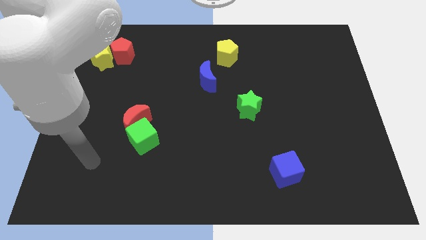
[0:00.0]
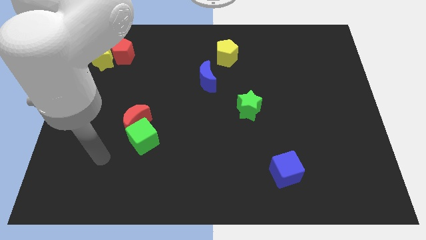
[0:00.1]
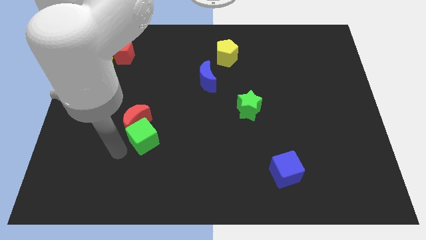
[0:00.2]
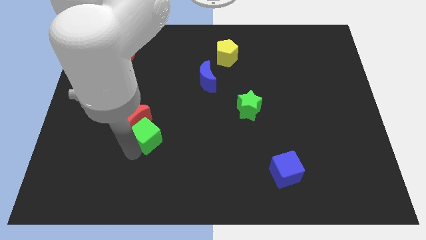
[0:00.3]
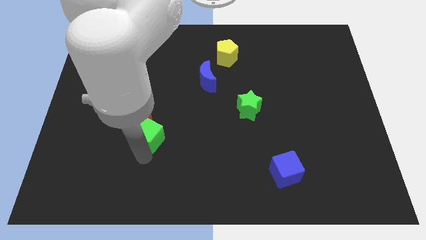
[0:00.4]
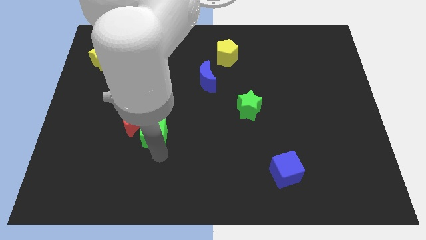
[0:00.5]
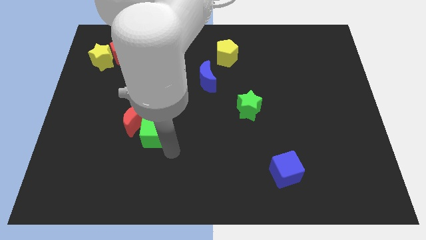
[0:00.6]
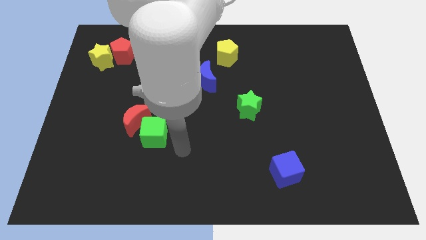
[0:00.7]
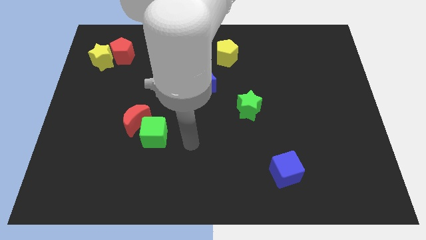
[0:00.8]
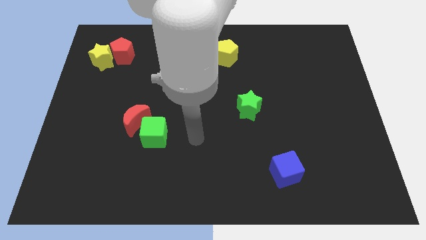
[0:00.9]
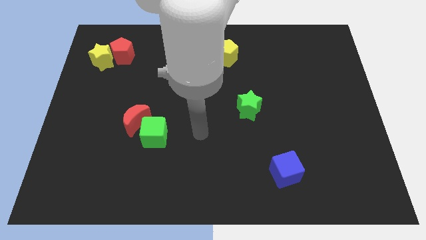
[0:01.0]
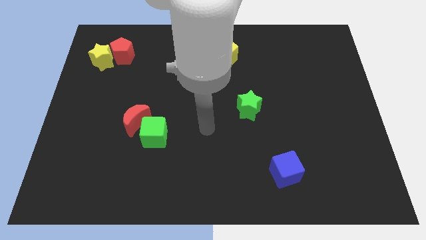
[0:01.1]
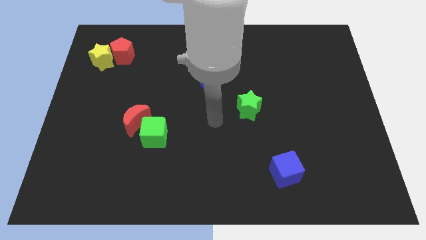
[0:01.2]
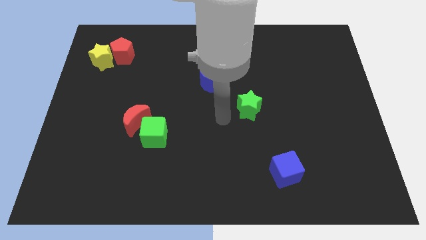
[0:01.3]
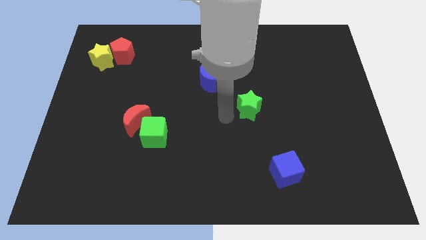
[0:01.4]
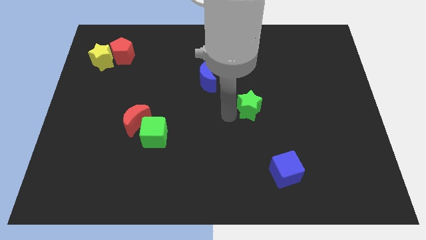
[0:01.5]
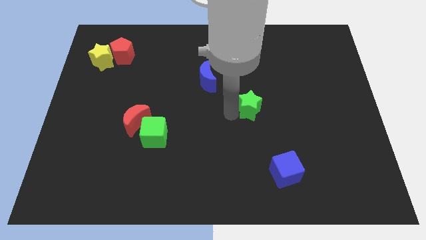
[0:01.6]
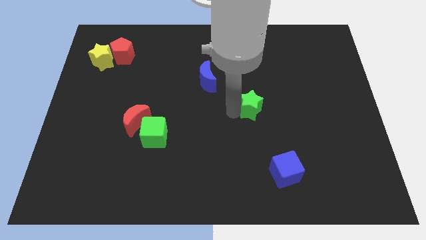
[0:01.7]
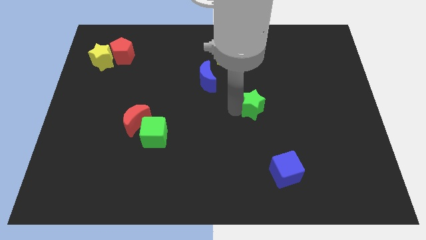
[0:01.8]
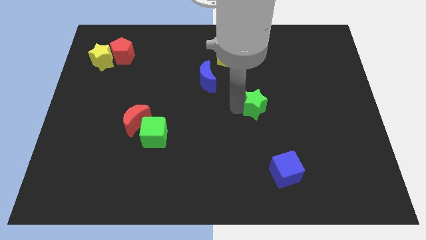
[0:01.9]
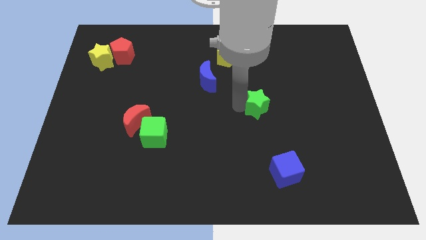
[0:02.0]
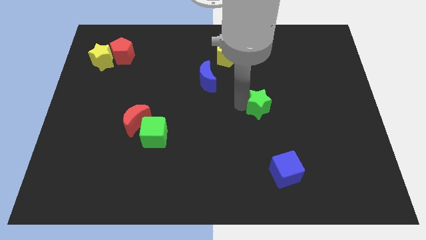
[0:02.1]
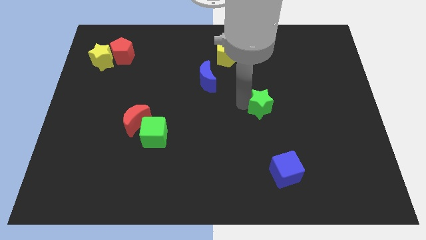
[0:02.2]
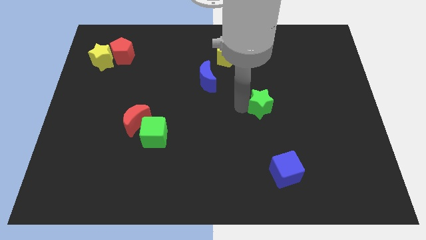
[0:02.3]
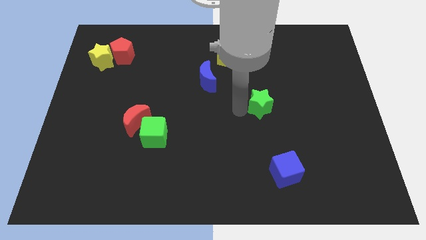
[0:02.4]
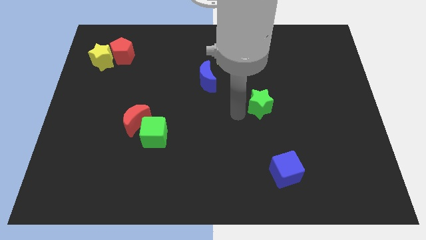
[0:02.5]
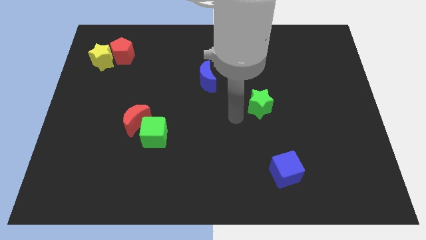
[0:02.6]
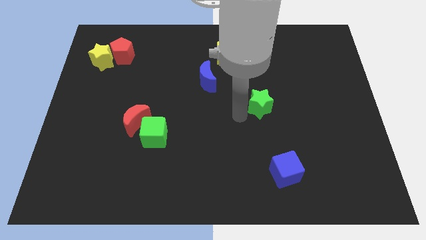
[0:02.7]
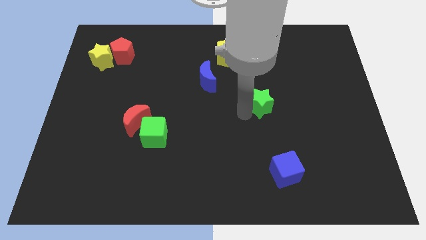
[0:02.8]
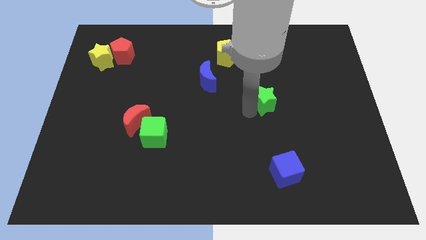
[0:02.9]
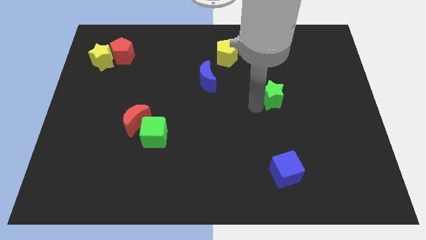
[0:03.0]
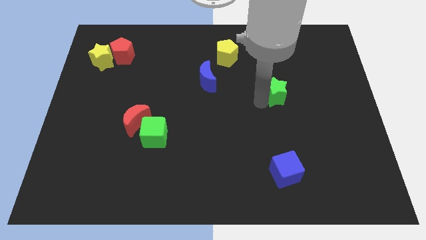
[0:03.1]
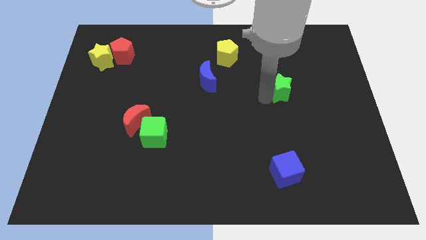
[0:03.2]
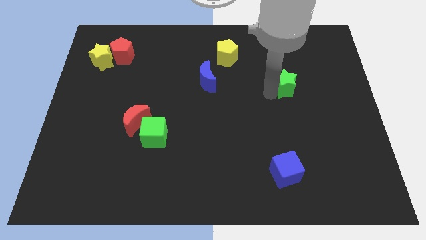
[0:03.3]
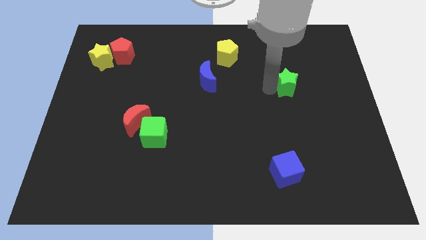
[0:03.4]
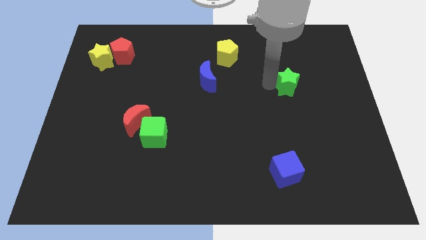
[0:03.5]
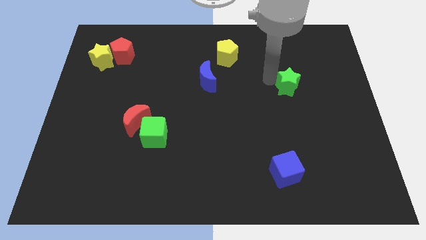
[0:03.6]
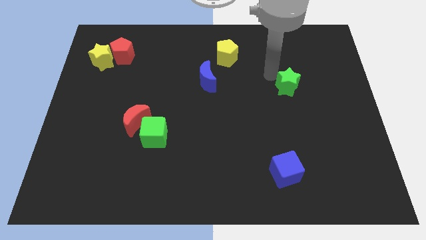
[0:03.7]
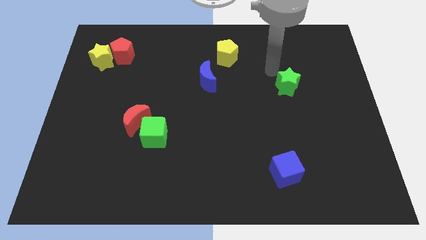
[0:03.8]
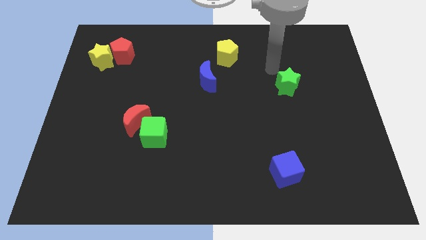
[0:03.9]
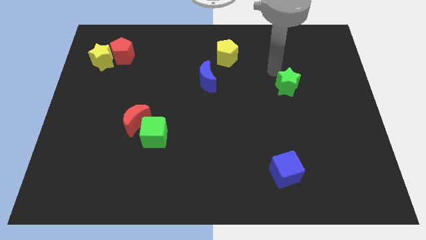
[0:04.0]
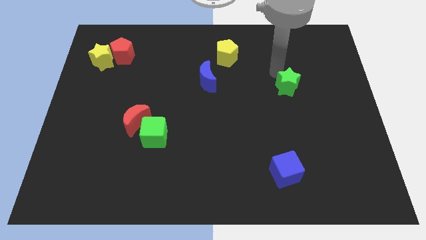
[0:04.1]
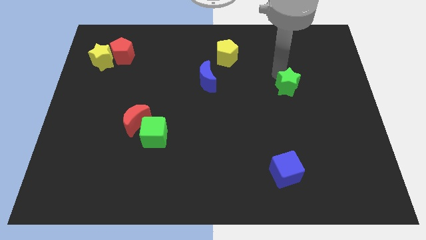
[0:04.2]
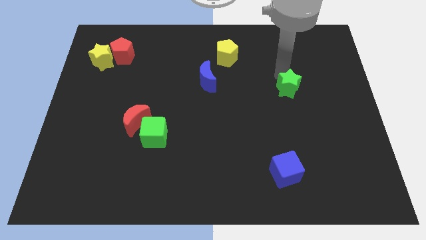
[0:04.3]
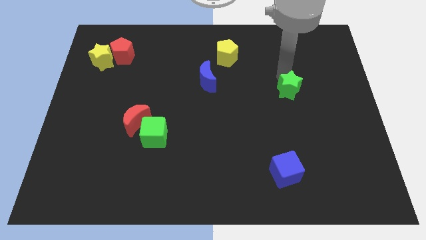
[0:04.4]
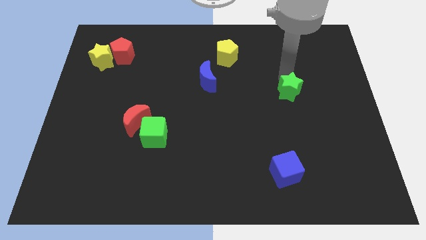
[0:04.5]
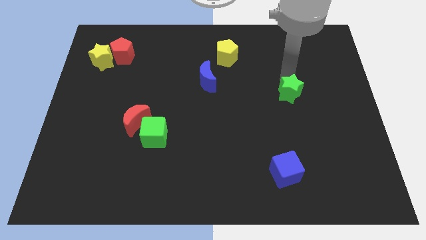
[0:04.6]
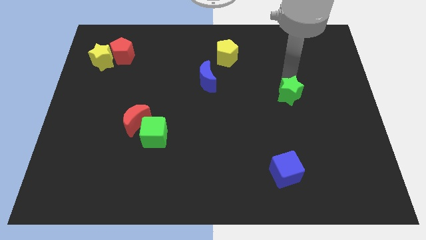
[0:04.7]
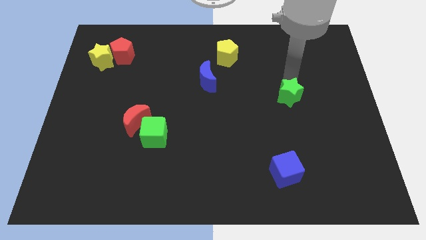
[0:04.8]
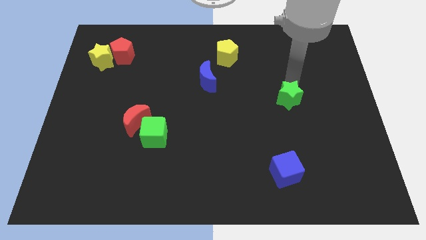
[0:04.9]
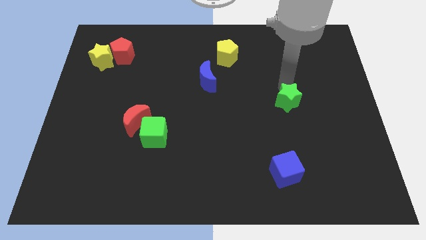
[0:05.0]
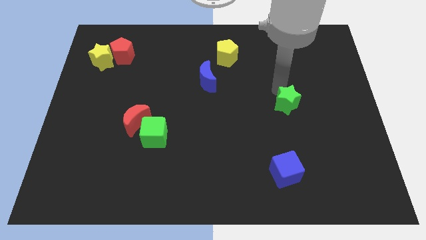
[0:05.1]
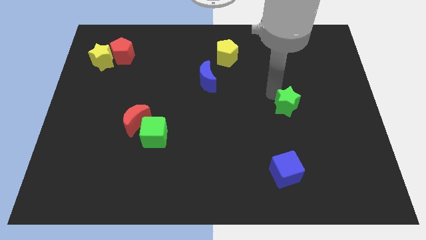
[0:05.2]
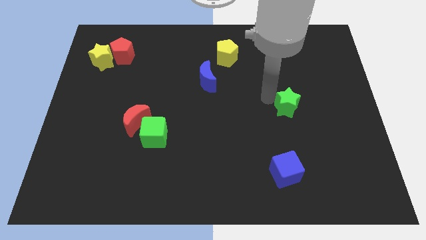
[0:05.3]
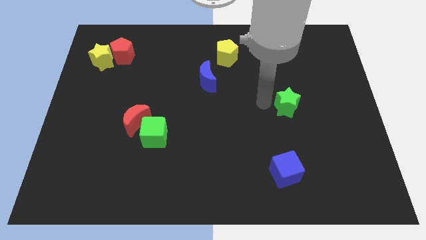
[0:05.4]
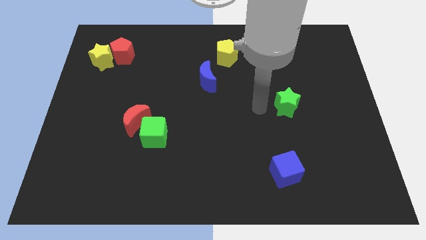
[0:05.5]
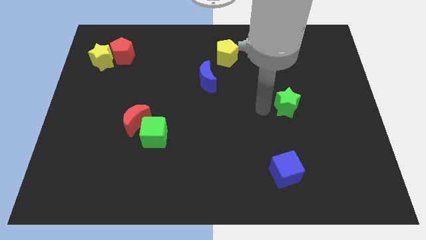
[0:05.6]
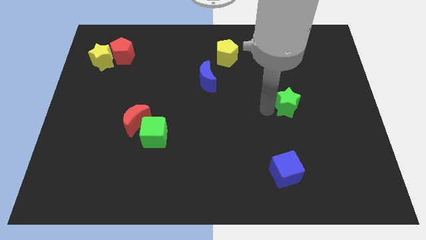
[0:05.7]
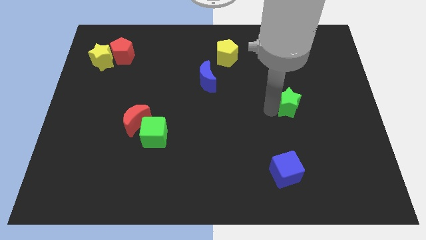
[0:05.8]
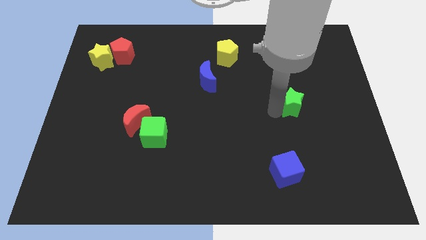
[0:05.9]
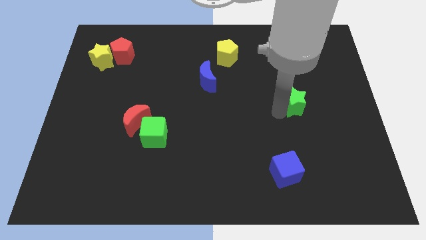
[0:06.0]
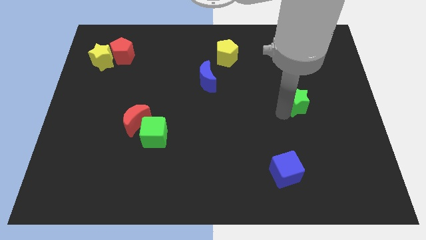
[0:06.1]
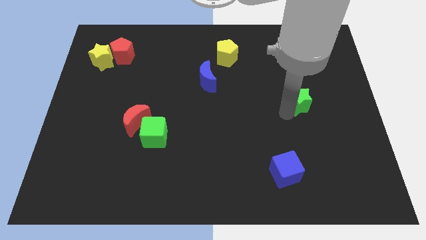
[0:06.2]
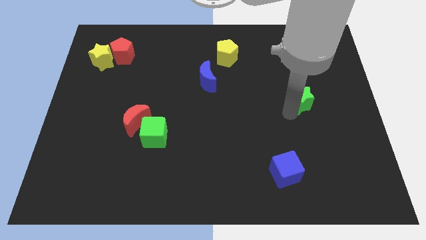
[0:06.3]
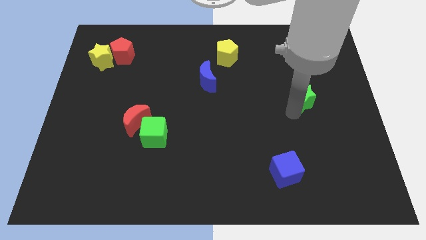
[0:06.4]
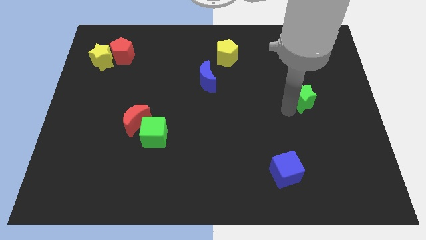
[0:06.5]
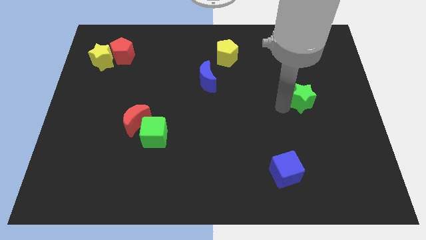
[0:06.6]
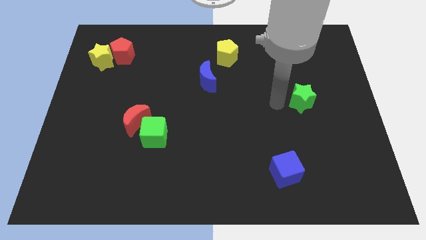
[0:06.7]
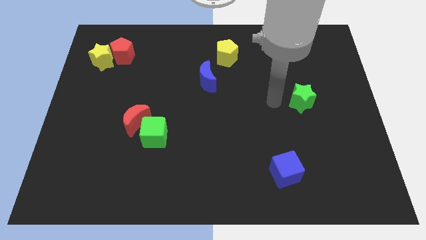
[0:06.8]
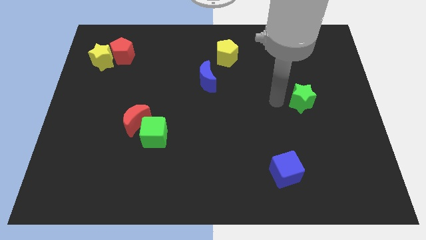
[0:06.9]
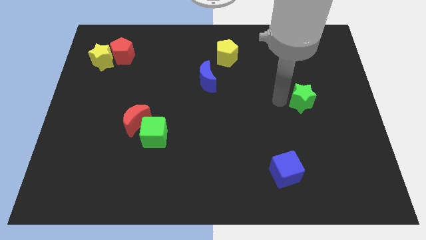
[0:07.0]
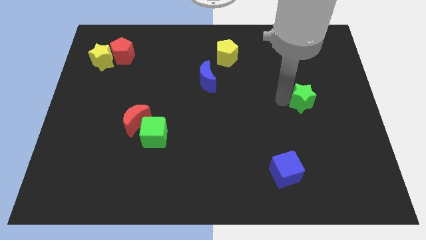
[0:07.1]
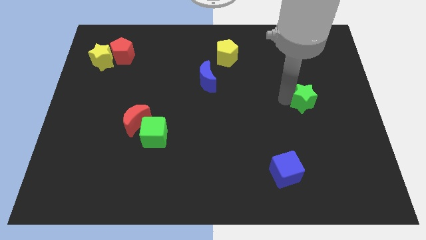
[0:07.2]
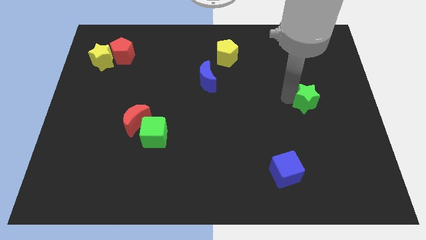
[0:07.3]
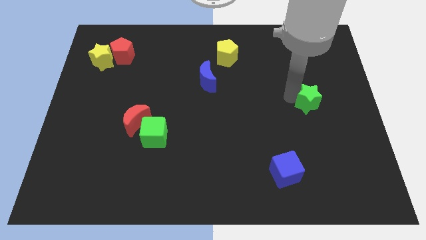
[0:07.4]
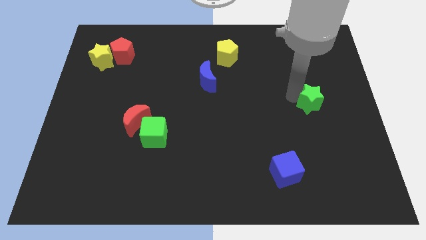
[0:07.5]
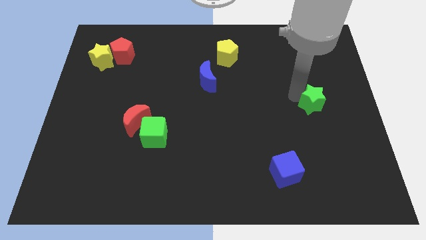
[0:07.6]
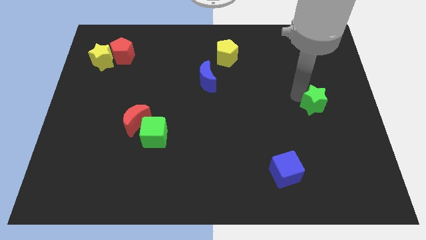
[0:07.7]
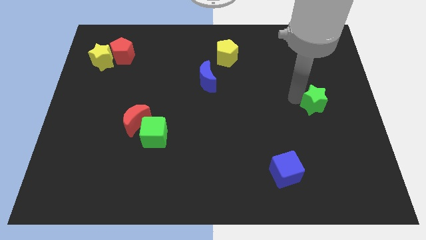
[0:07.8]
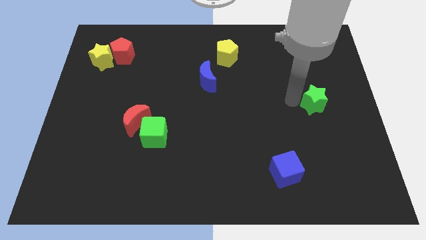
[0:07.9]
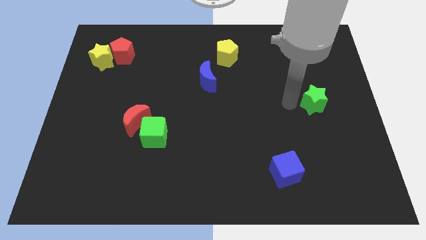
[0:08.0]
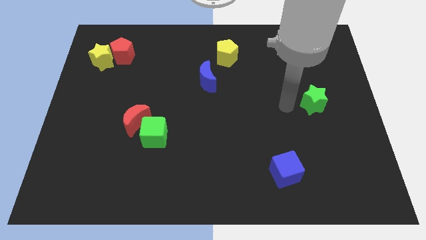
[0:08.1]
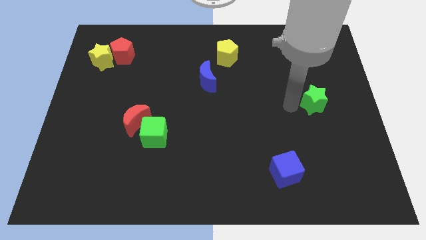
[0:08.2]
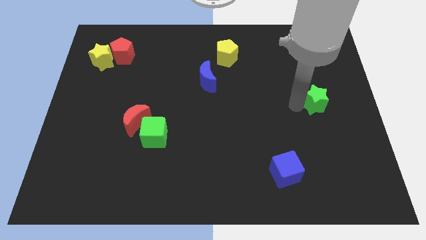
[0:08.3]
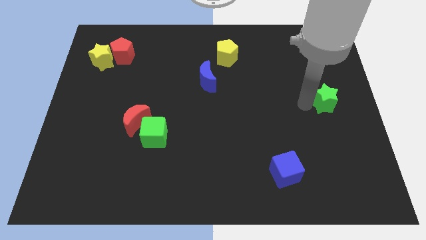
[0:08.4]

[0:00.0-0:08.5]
put the green star to the right side of the board
